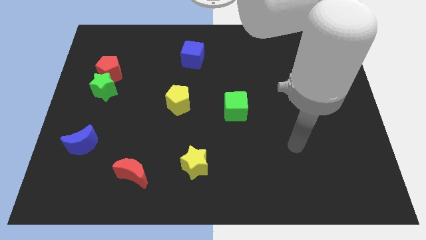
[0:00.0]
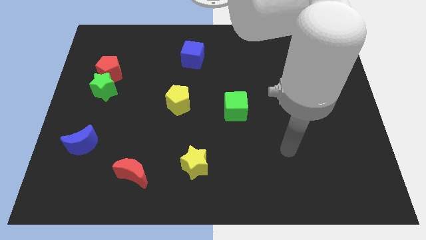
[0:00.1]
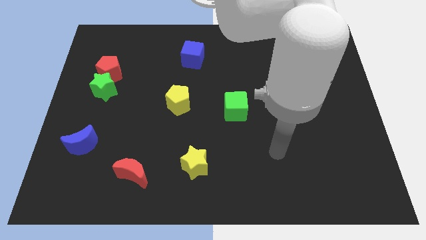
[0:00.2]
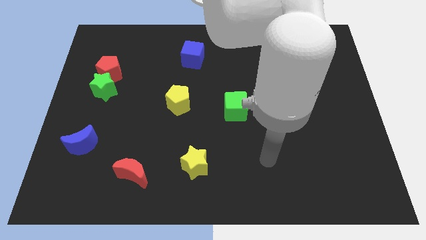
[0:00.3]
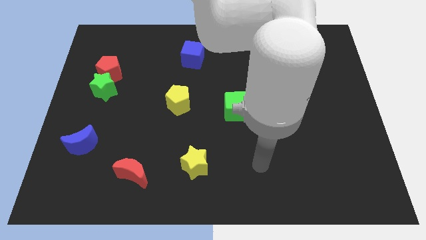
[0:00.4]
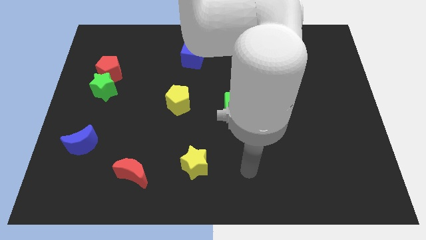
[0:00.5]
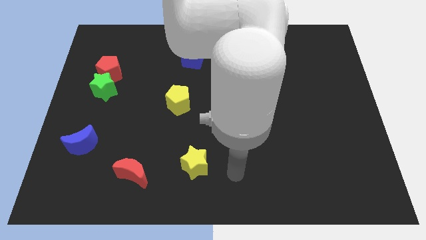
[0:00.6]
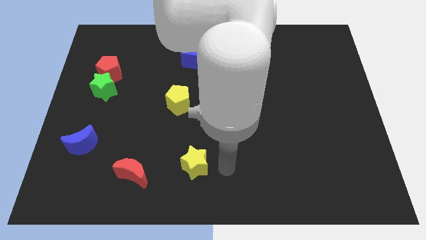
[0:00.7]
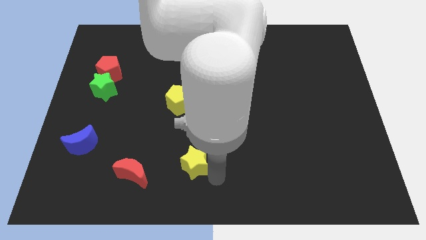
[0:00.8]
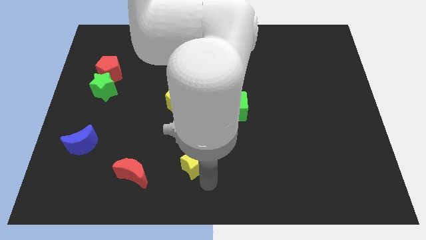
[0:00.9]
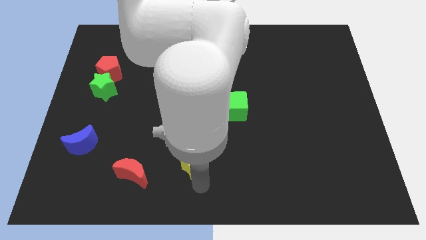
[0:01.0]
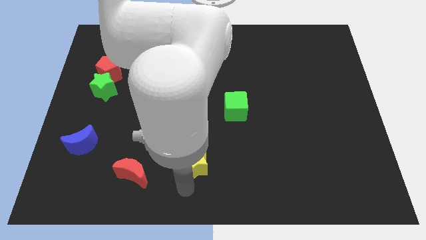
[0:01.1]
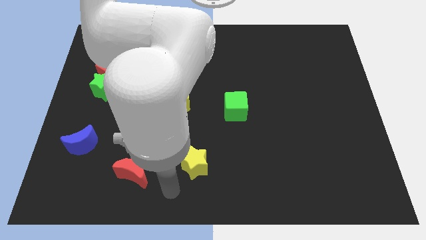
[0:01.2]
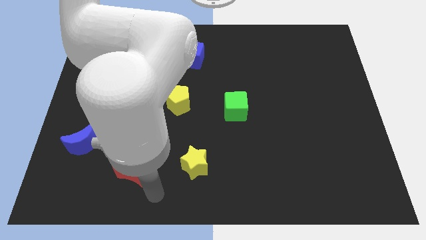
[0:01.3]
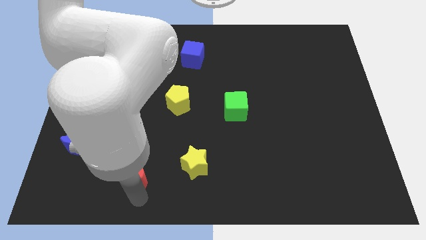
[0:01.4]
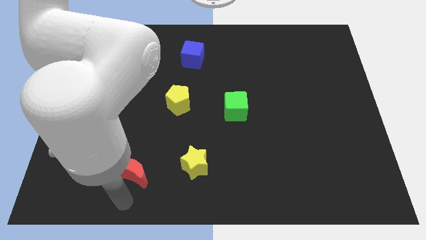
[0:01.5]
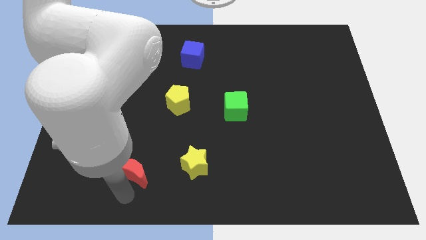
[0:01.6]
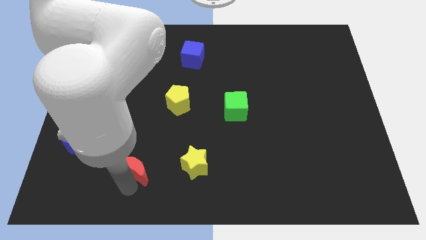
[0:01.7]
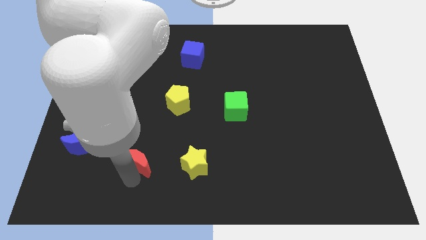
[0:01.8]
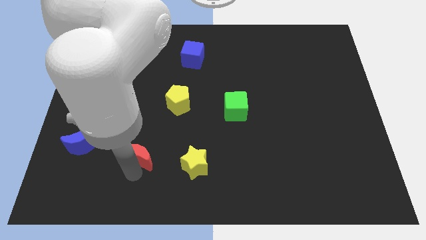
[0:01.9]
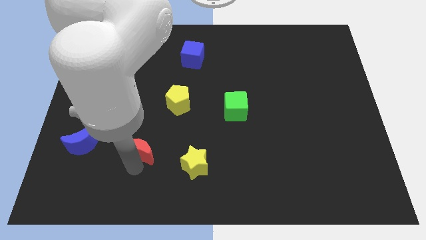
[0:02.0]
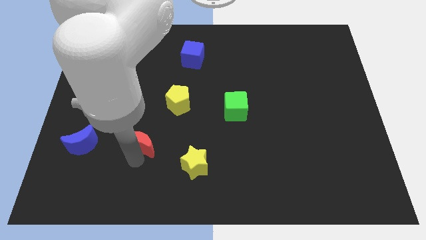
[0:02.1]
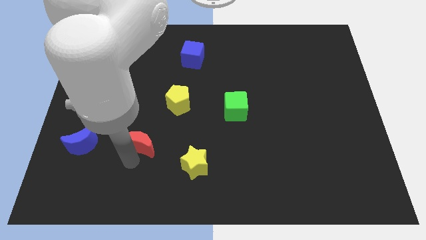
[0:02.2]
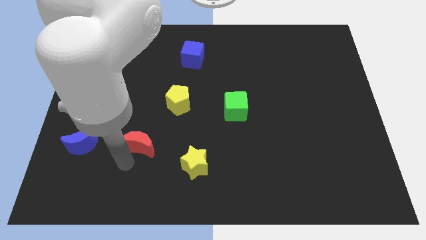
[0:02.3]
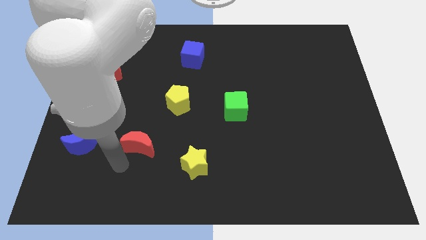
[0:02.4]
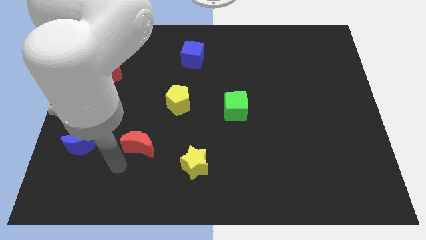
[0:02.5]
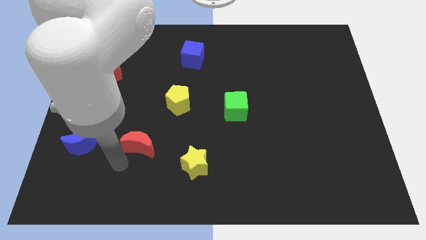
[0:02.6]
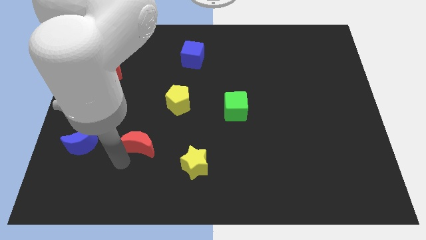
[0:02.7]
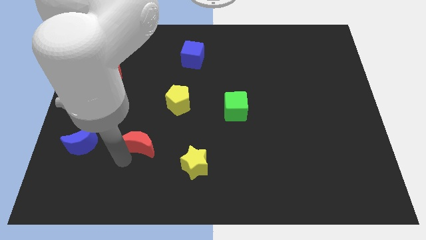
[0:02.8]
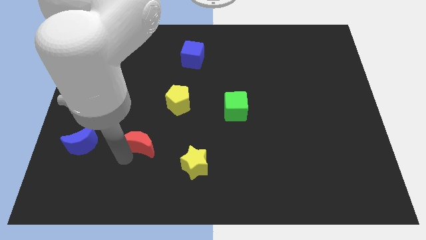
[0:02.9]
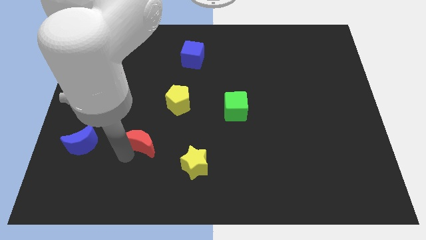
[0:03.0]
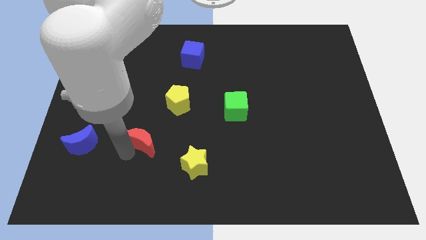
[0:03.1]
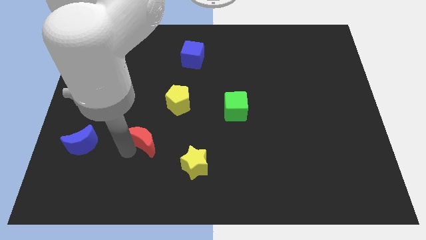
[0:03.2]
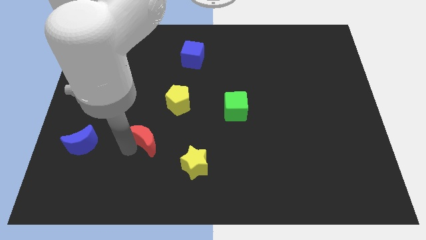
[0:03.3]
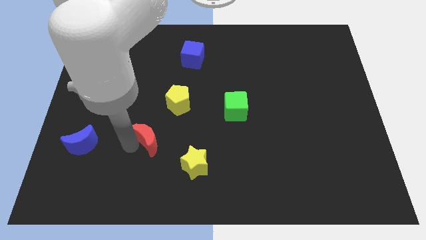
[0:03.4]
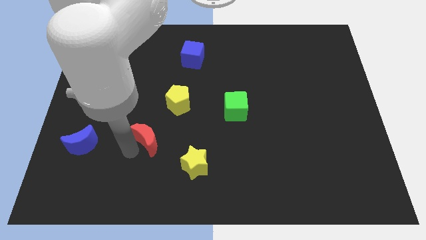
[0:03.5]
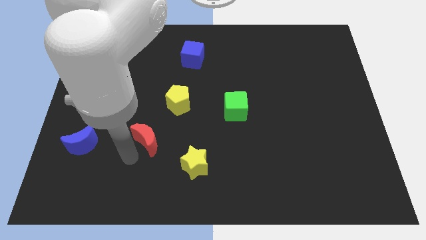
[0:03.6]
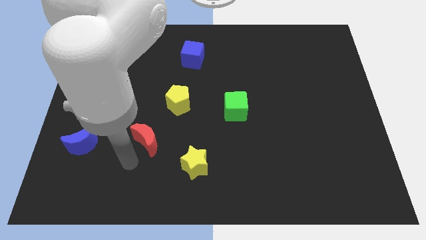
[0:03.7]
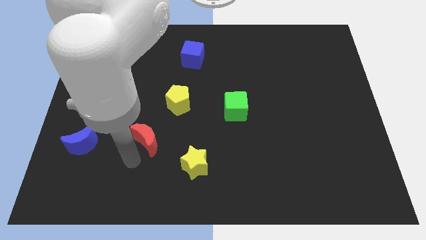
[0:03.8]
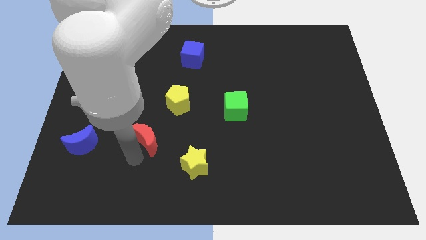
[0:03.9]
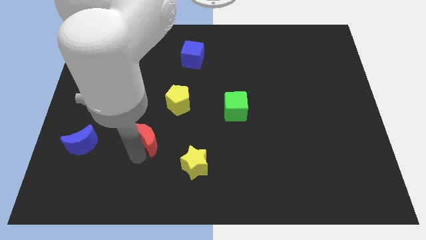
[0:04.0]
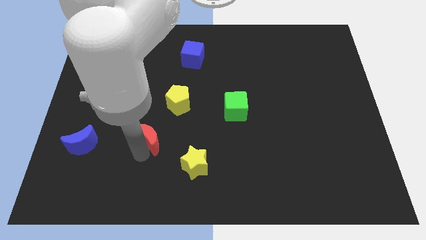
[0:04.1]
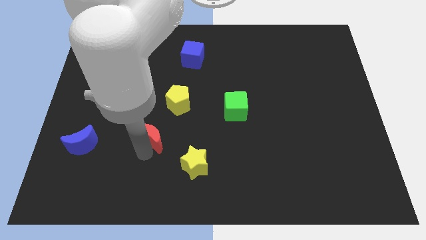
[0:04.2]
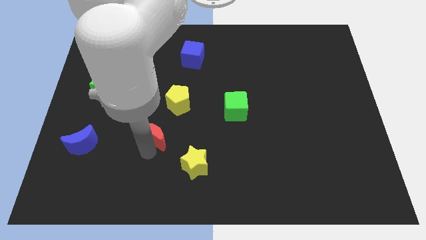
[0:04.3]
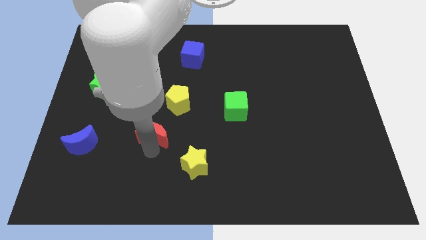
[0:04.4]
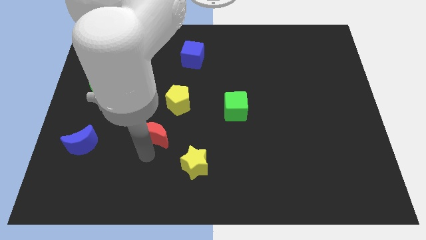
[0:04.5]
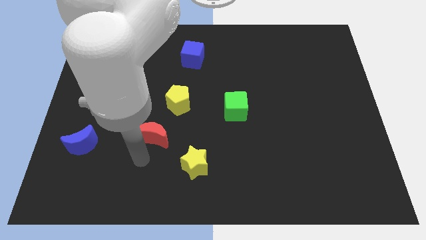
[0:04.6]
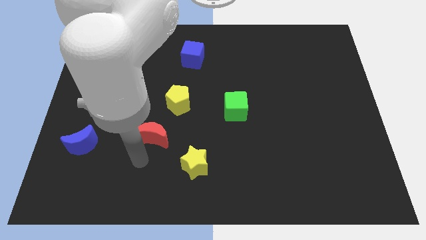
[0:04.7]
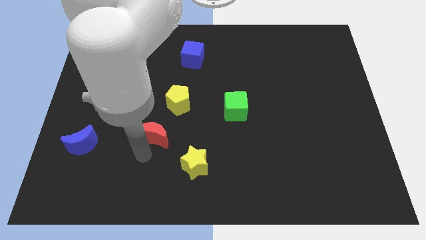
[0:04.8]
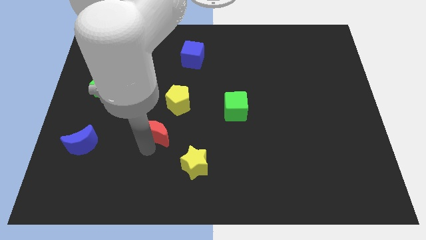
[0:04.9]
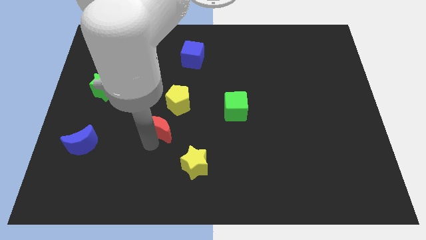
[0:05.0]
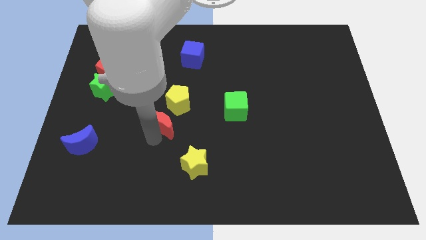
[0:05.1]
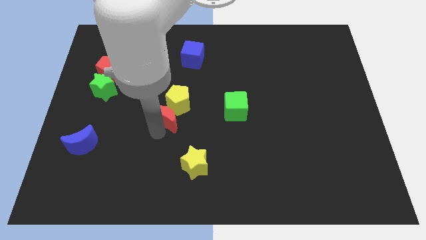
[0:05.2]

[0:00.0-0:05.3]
put the red moon to the yellow pentagon

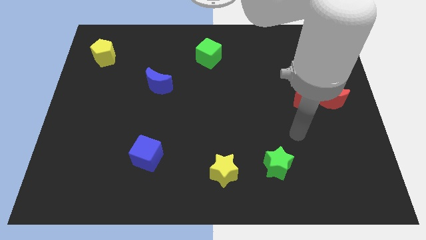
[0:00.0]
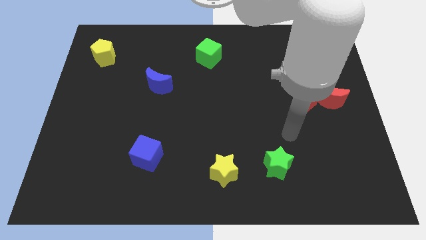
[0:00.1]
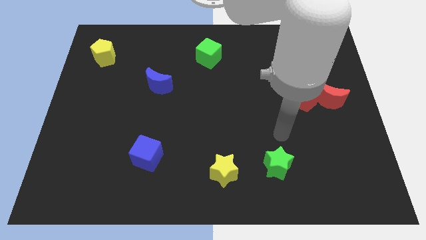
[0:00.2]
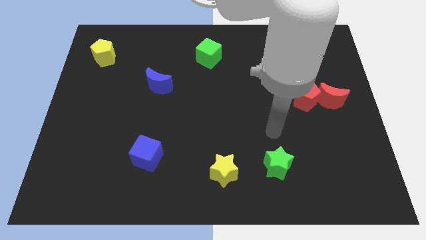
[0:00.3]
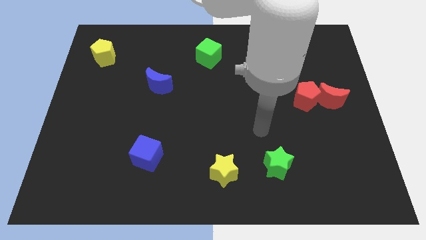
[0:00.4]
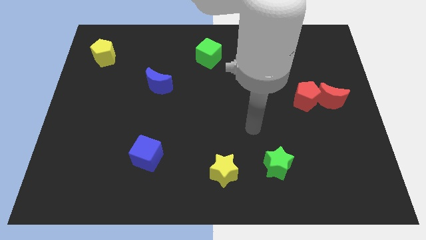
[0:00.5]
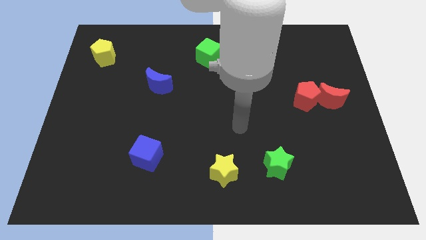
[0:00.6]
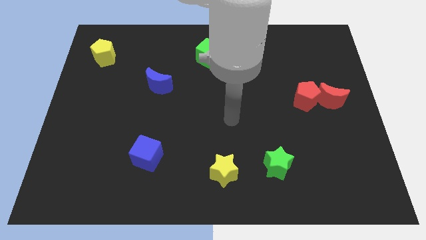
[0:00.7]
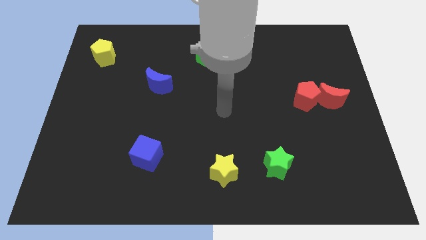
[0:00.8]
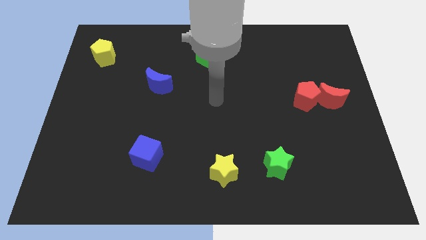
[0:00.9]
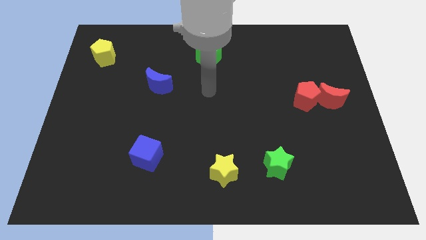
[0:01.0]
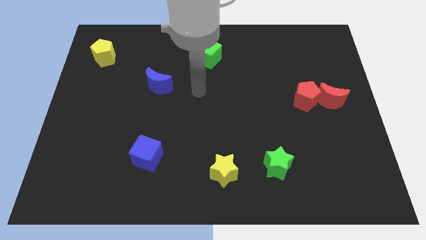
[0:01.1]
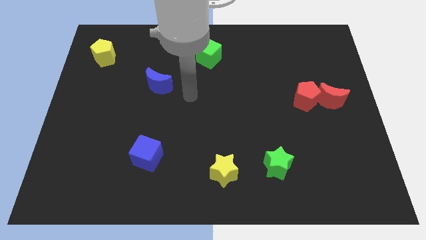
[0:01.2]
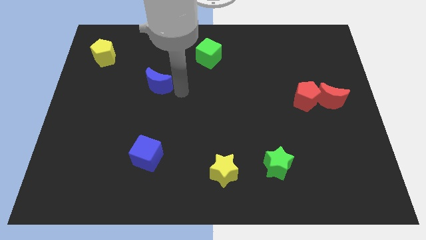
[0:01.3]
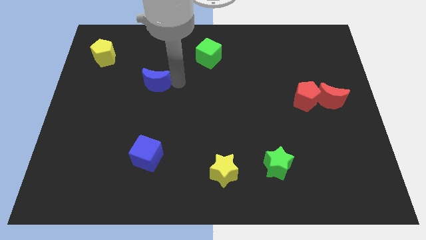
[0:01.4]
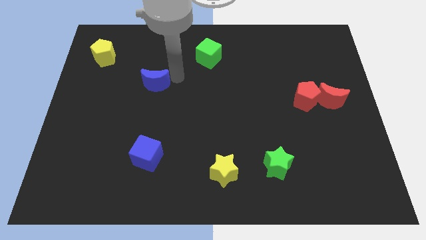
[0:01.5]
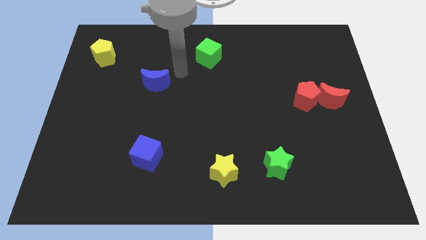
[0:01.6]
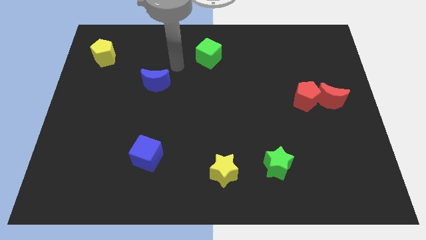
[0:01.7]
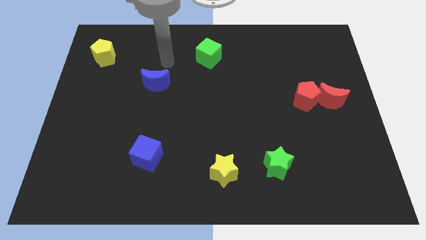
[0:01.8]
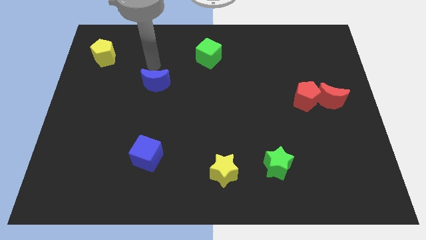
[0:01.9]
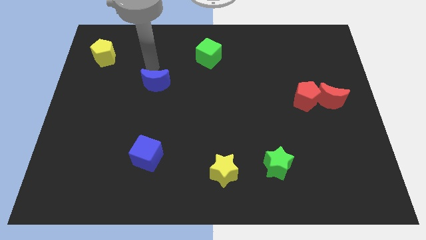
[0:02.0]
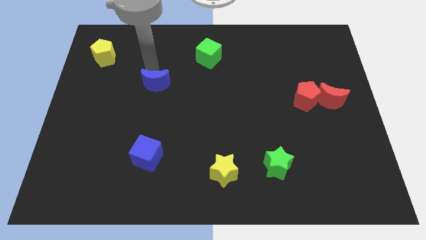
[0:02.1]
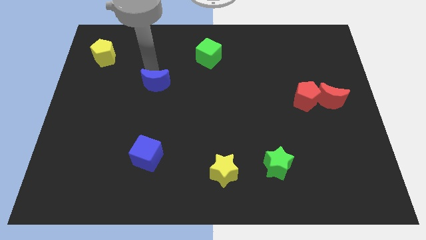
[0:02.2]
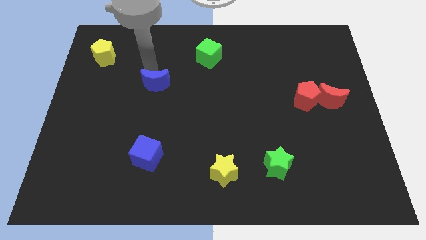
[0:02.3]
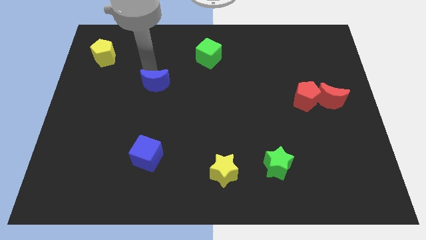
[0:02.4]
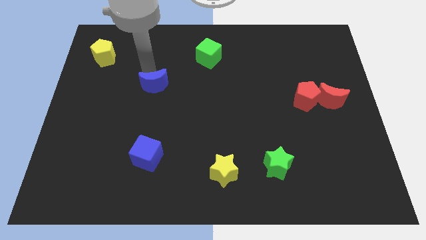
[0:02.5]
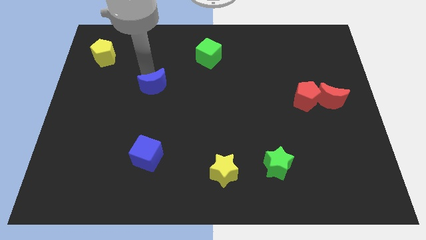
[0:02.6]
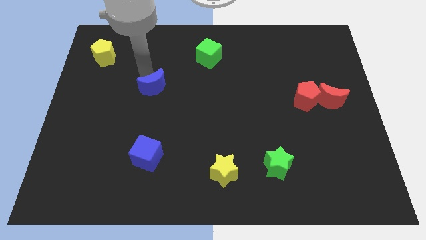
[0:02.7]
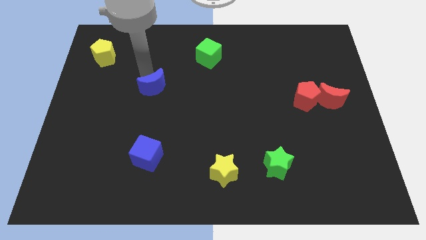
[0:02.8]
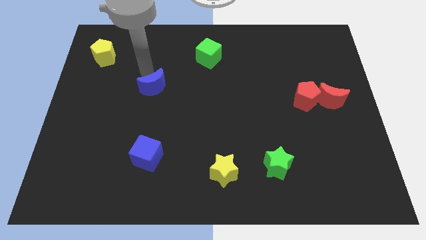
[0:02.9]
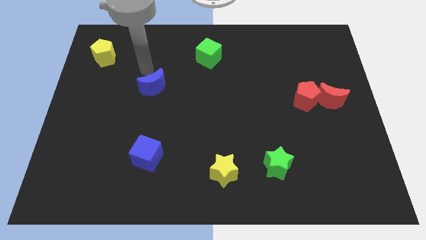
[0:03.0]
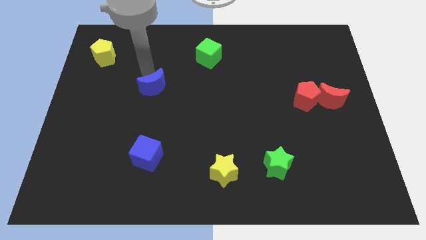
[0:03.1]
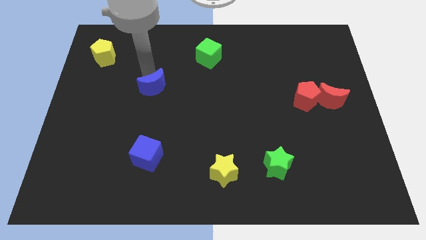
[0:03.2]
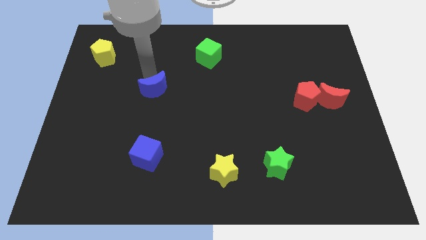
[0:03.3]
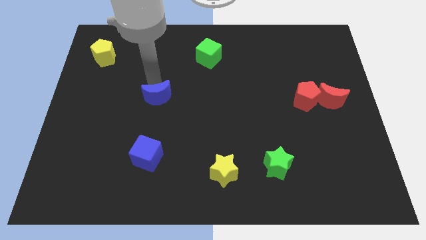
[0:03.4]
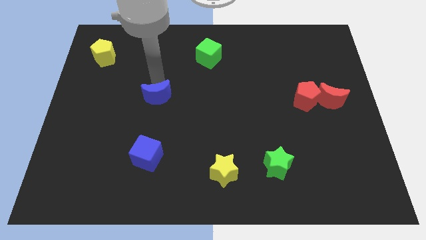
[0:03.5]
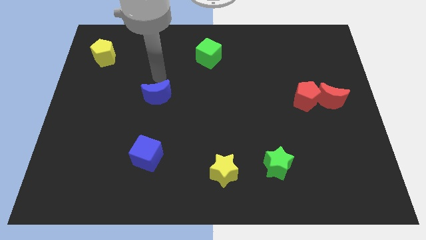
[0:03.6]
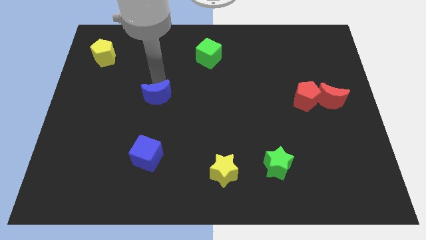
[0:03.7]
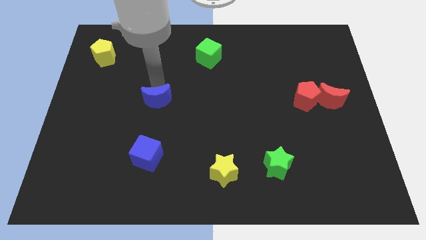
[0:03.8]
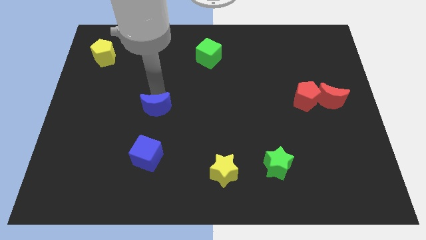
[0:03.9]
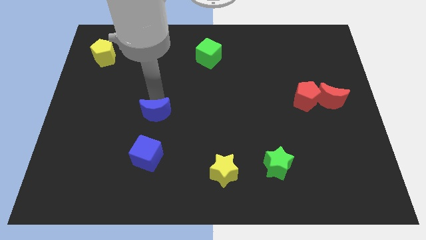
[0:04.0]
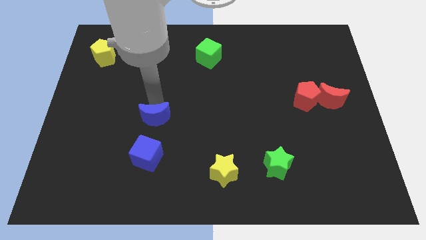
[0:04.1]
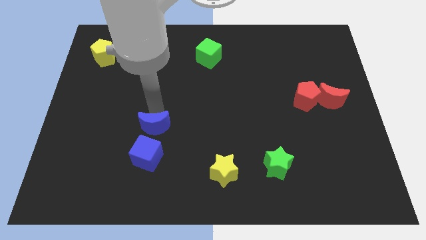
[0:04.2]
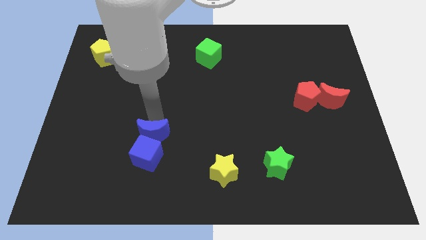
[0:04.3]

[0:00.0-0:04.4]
put the blue moon close to the blue cube
